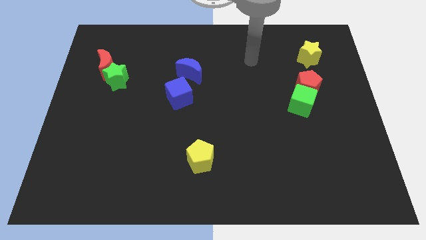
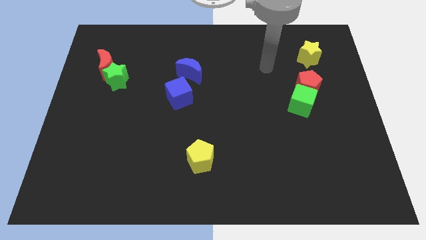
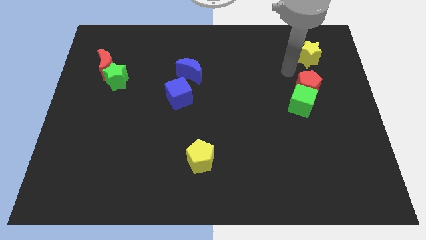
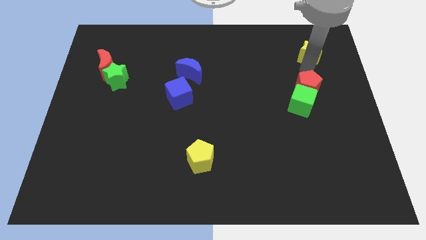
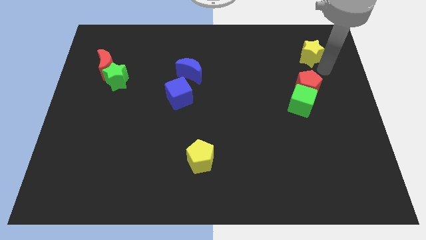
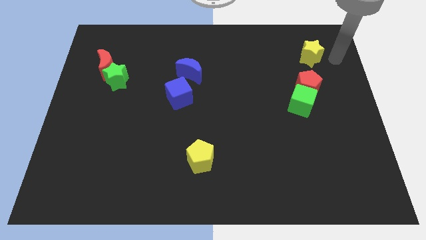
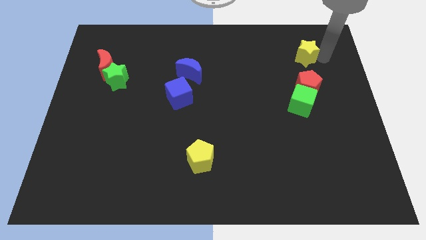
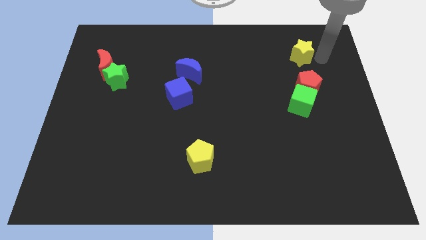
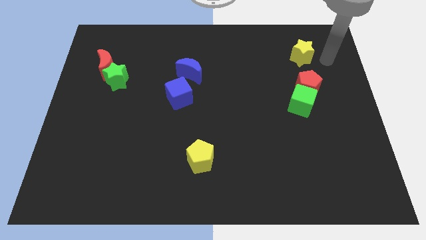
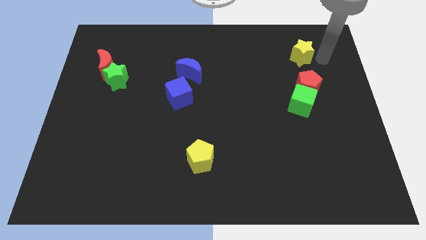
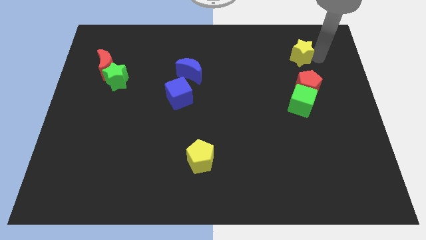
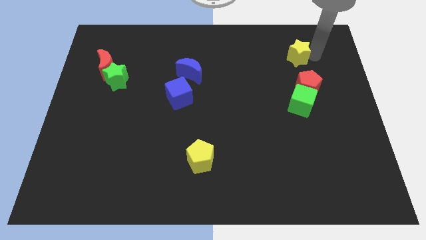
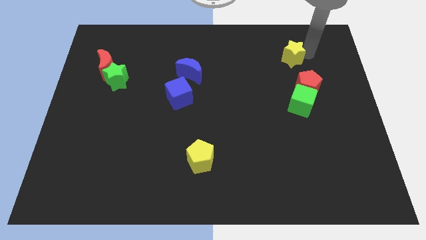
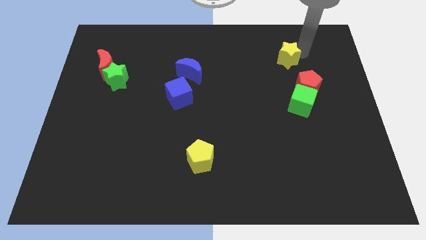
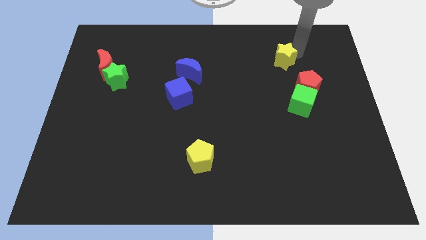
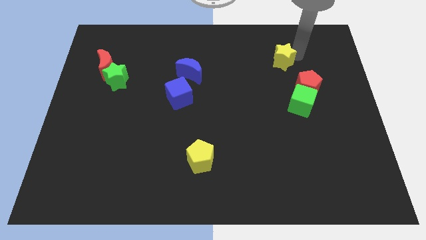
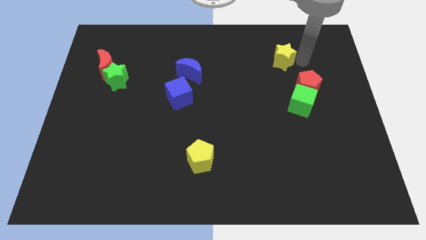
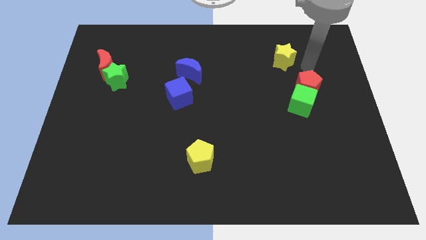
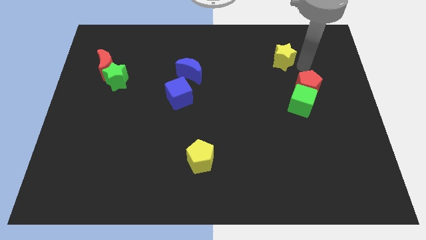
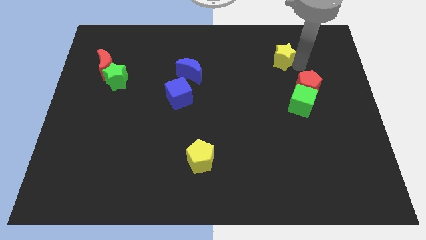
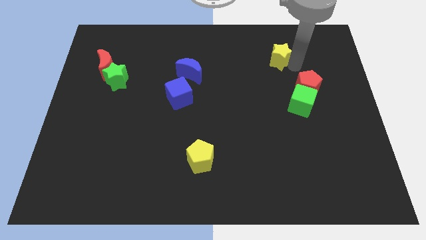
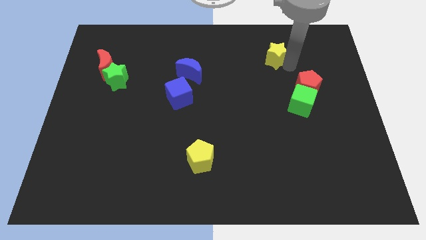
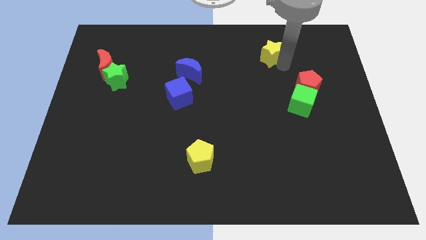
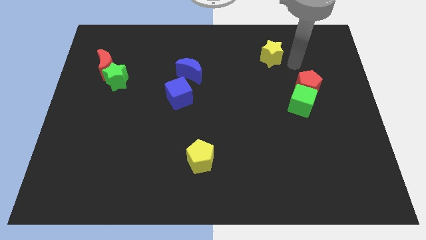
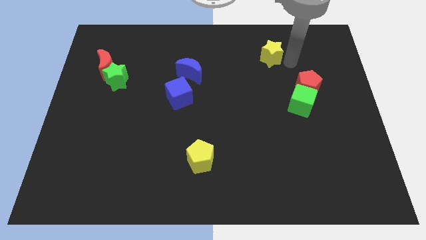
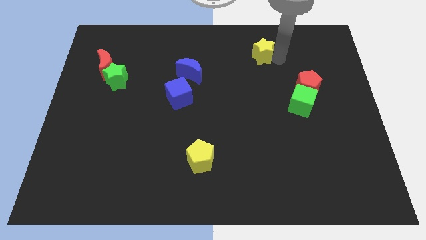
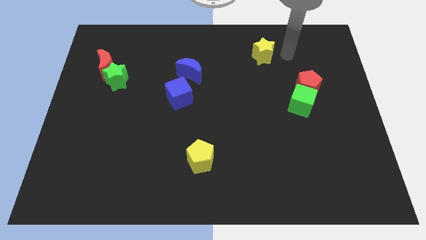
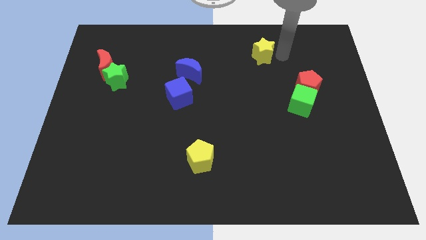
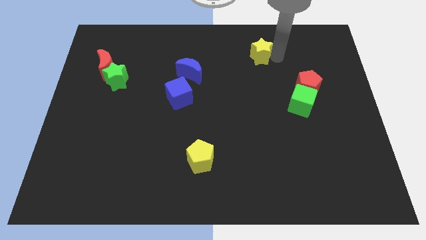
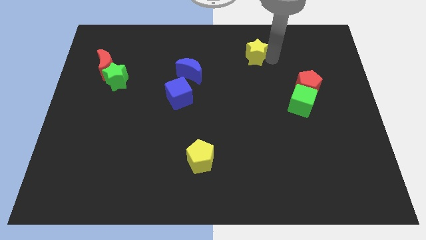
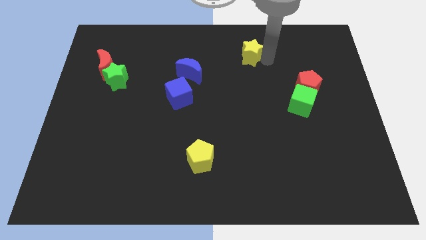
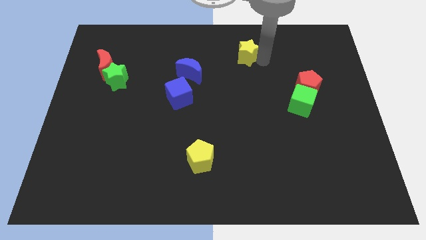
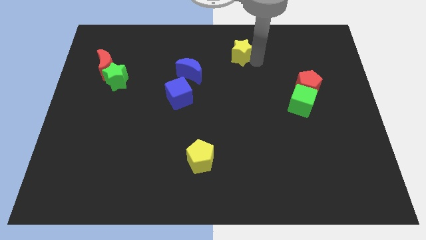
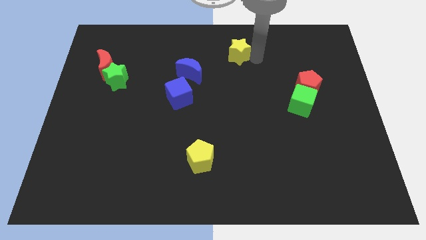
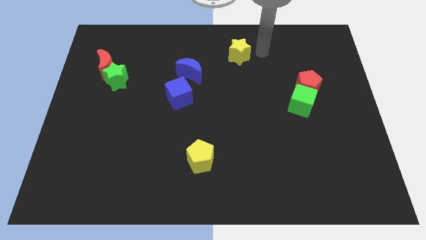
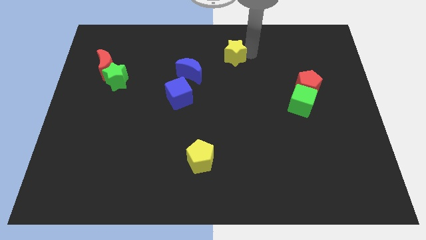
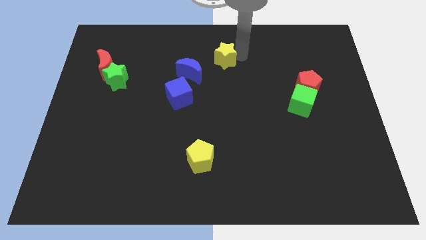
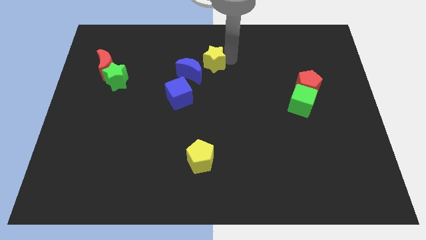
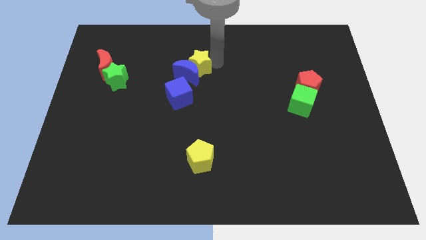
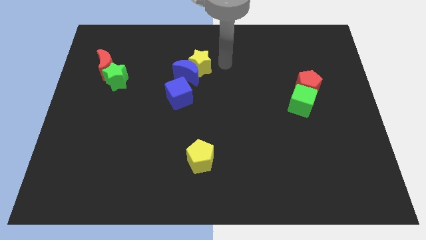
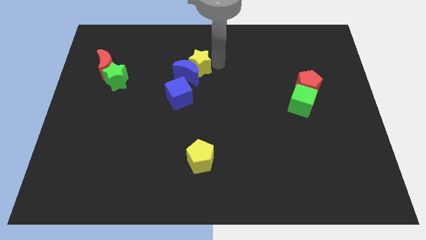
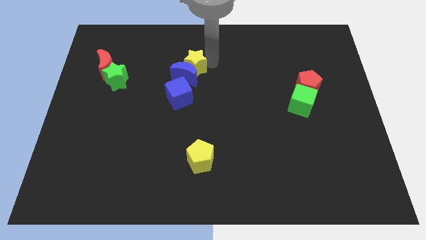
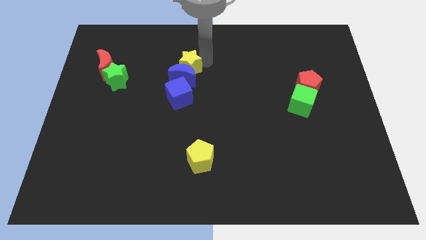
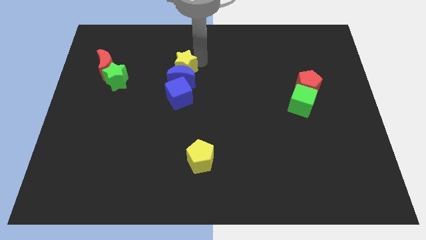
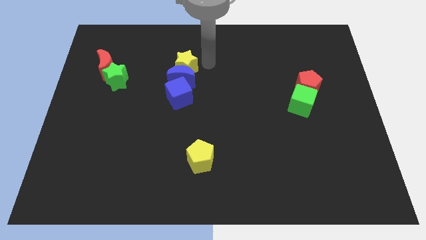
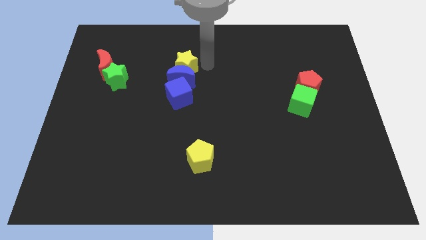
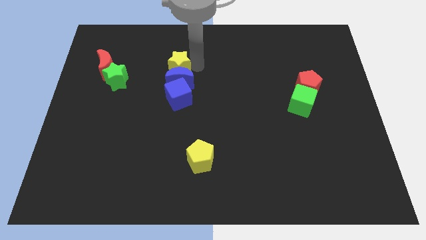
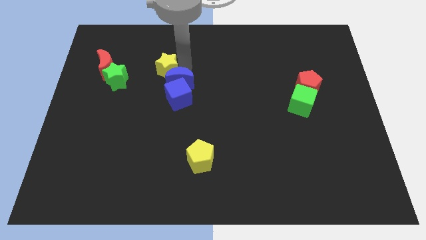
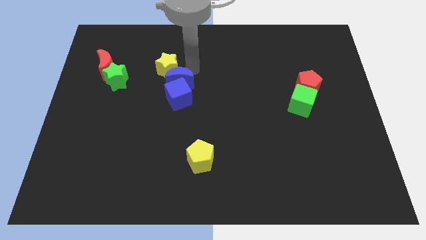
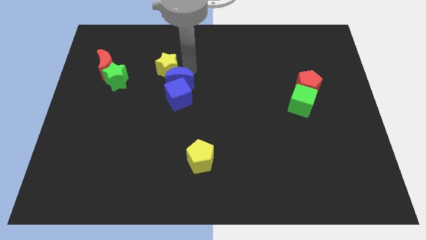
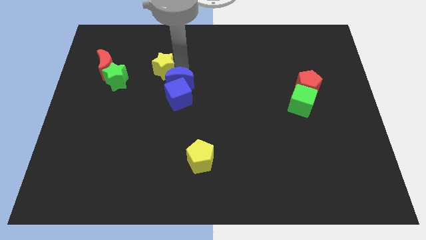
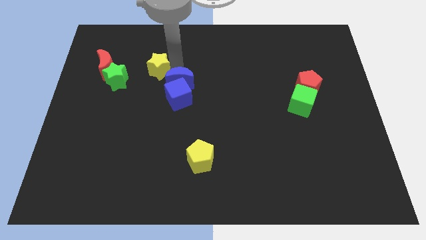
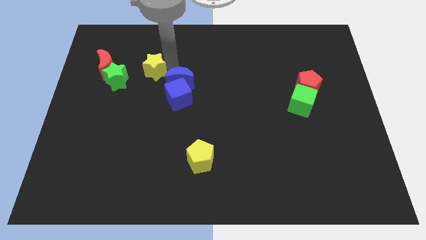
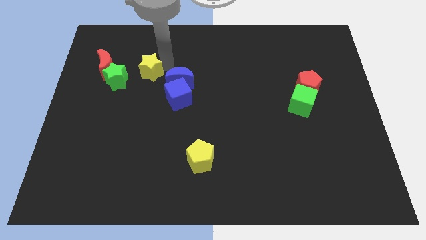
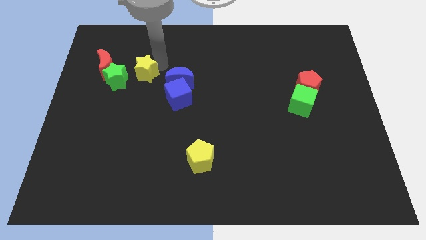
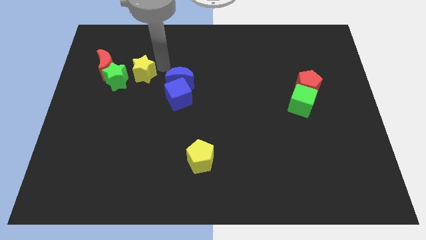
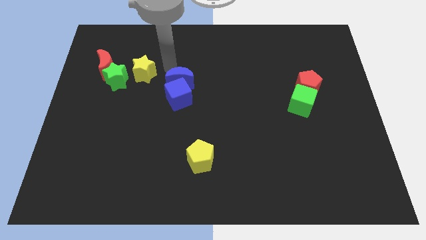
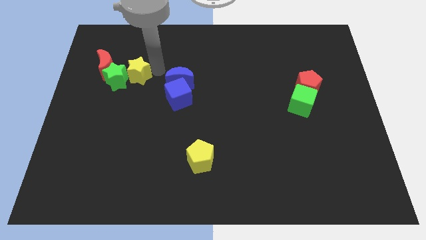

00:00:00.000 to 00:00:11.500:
slide the yellow star next to the green star

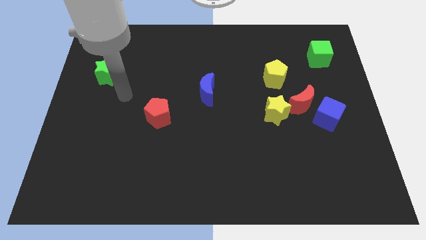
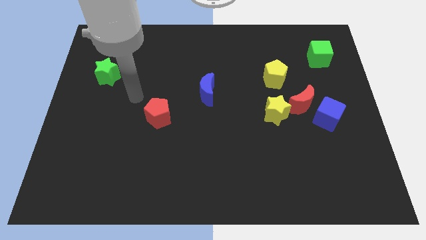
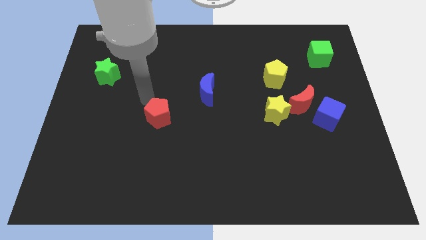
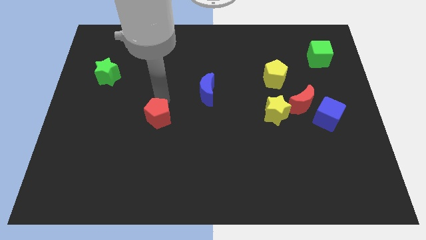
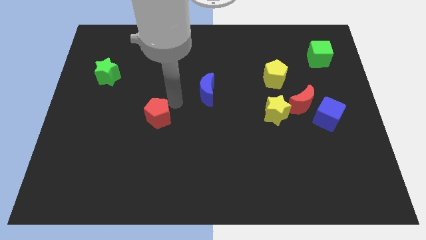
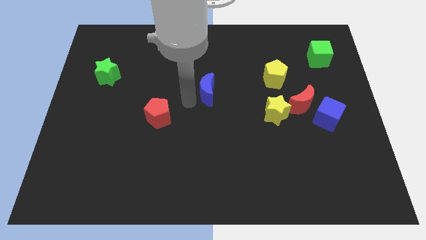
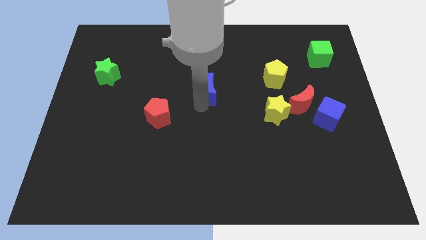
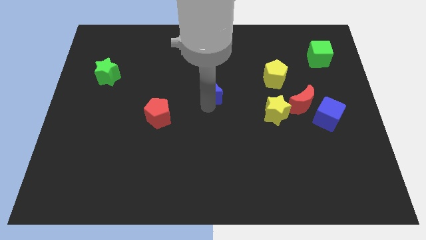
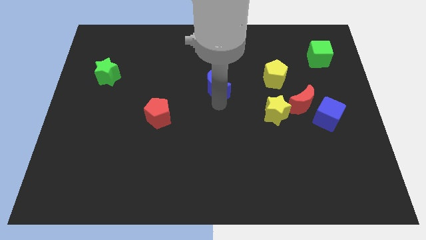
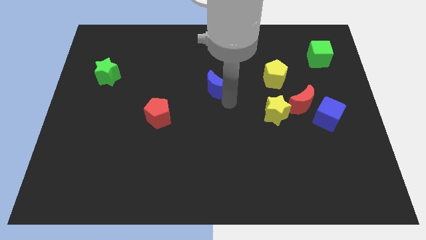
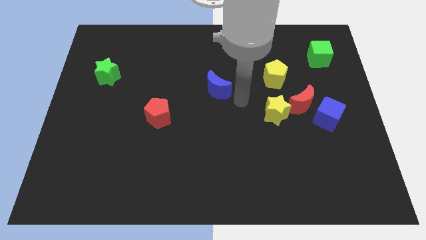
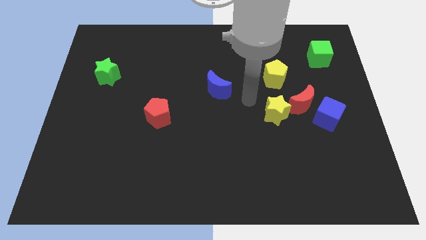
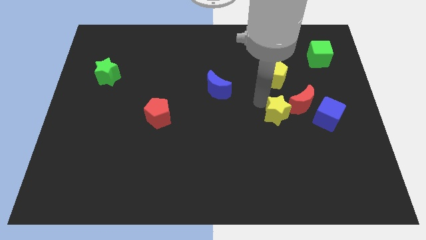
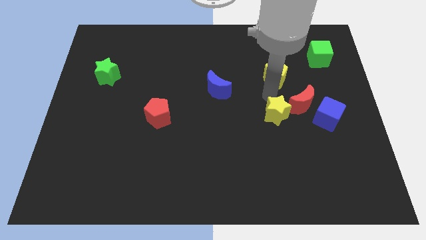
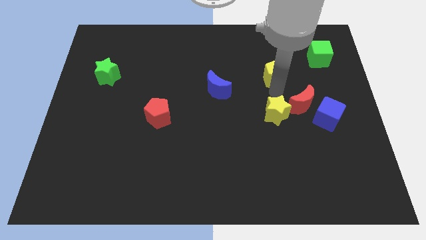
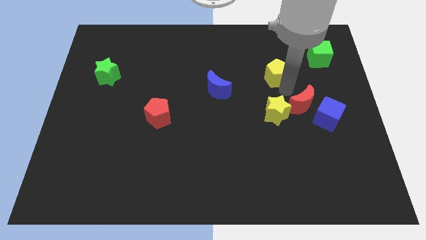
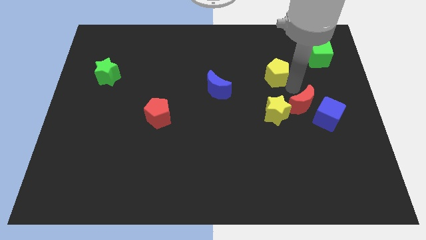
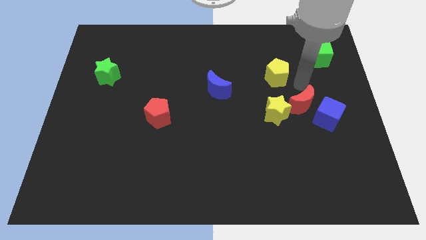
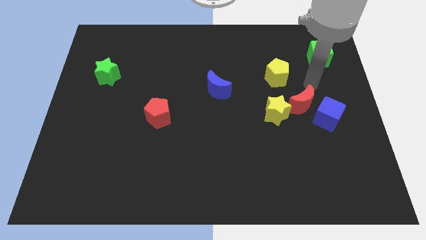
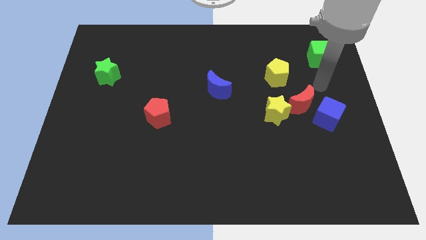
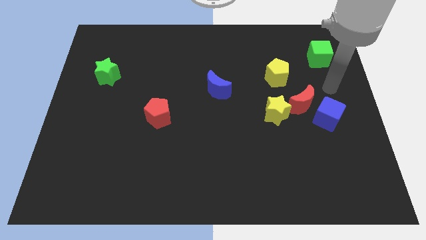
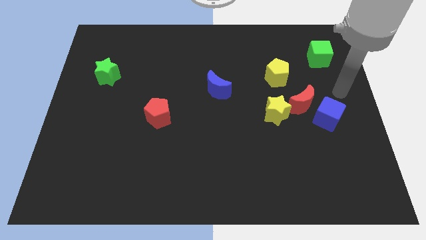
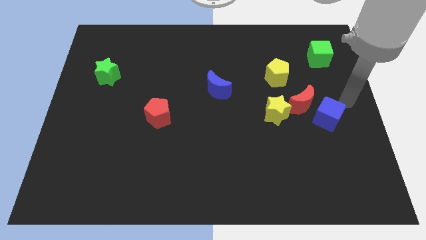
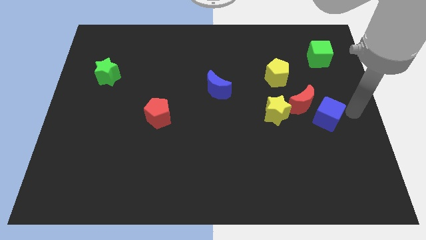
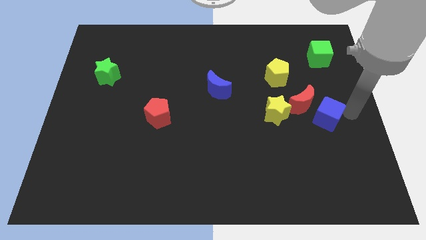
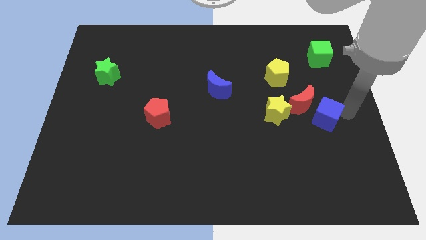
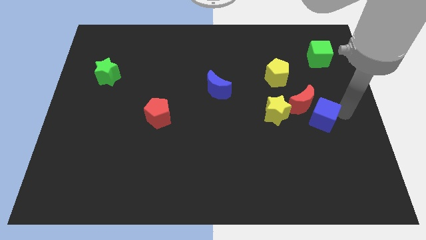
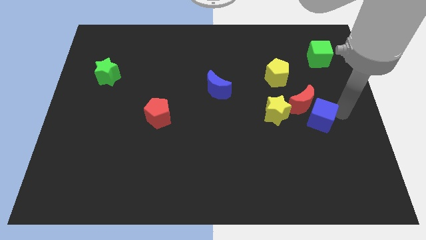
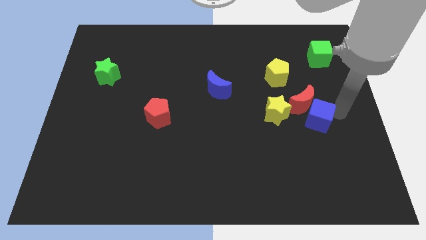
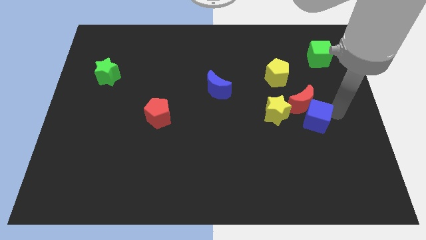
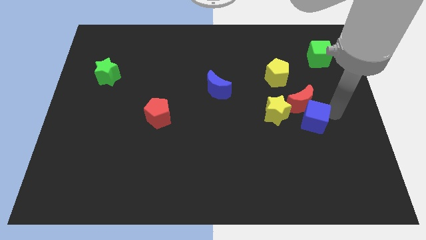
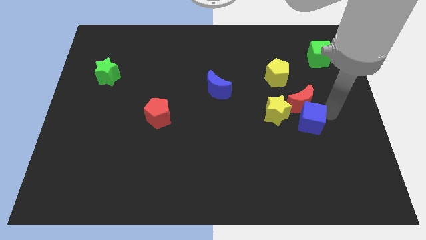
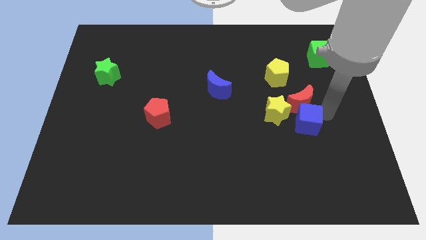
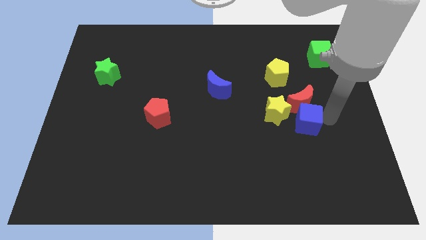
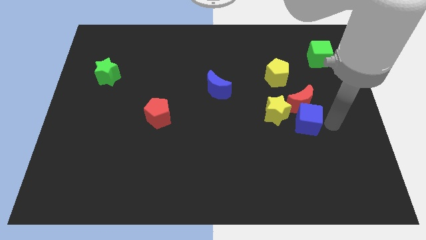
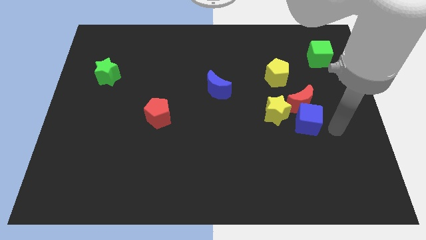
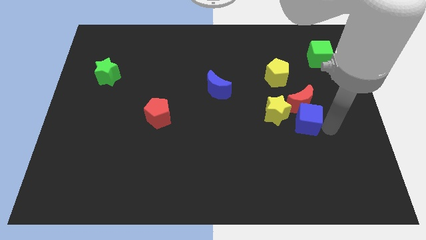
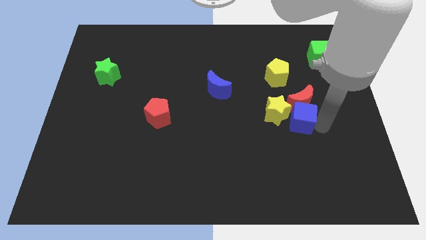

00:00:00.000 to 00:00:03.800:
push the blue cube next to the yellow star
